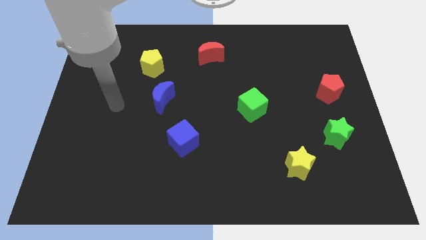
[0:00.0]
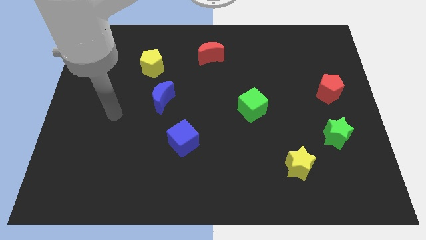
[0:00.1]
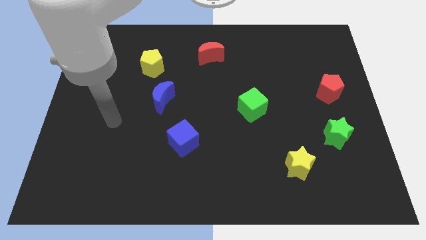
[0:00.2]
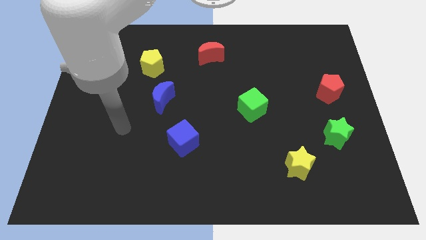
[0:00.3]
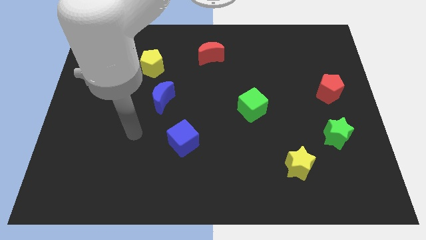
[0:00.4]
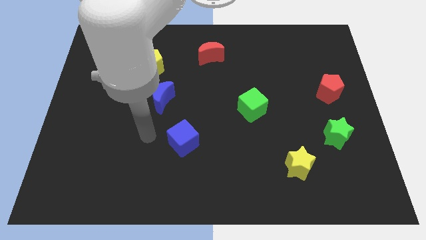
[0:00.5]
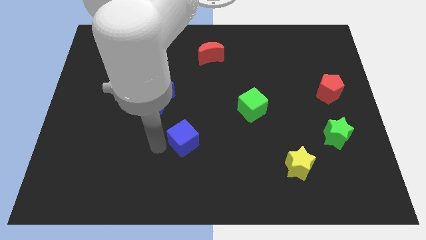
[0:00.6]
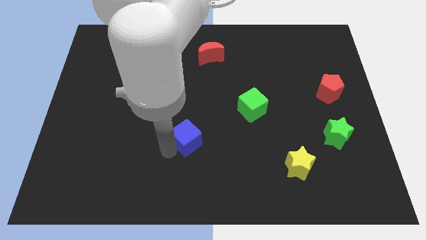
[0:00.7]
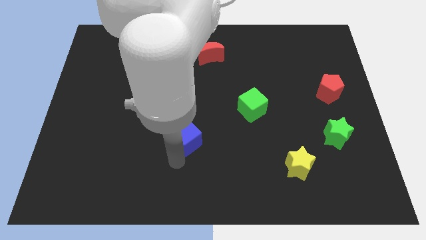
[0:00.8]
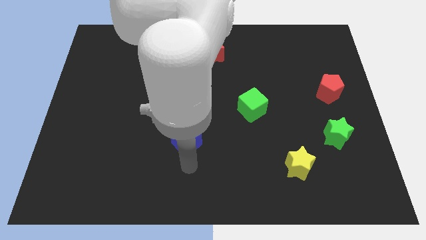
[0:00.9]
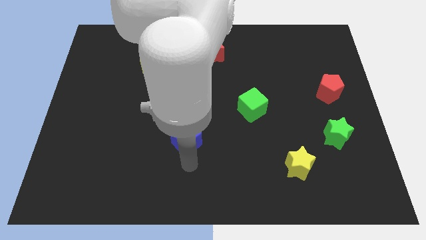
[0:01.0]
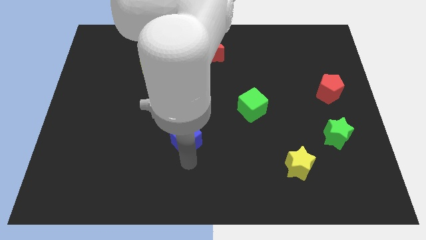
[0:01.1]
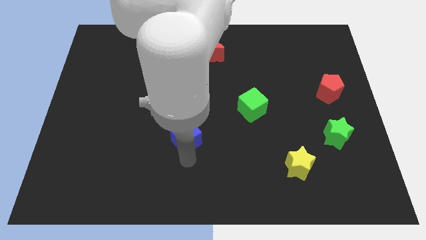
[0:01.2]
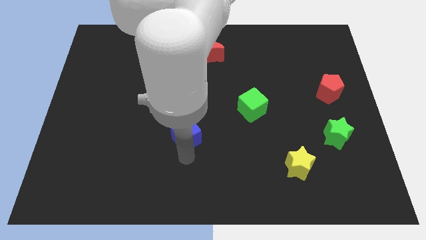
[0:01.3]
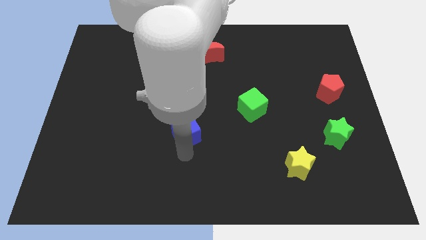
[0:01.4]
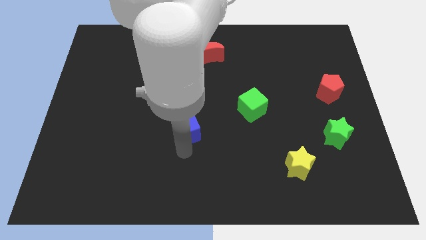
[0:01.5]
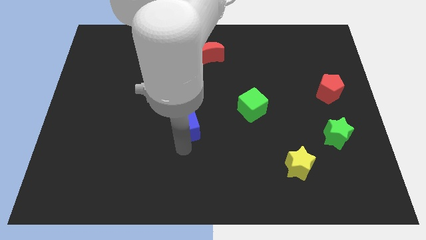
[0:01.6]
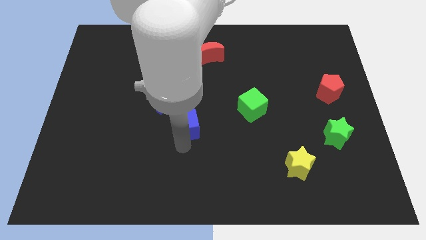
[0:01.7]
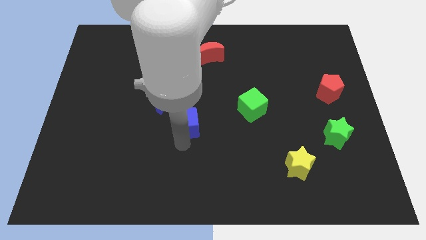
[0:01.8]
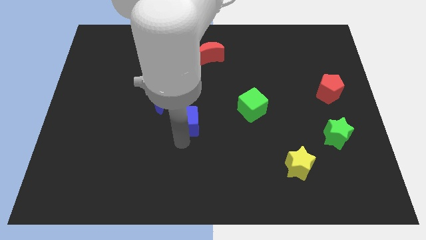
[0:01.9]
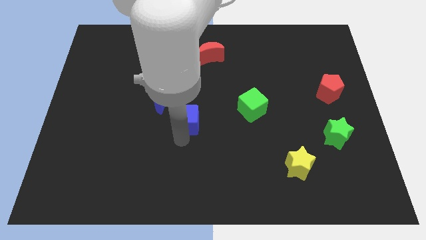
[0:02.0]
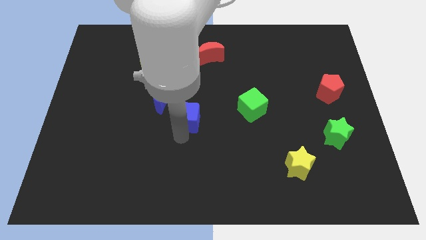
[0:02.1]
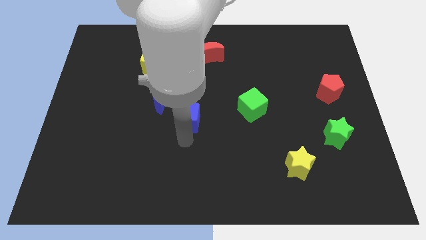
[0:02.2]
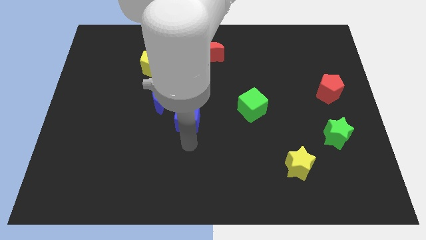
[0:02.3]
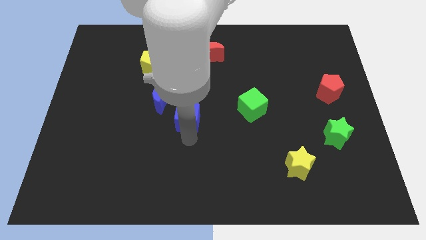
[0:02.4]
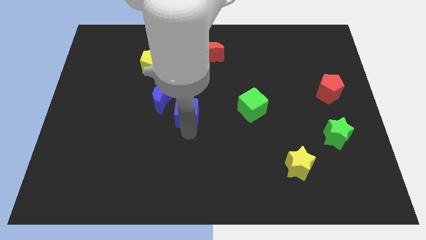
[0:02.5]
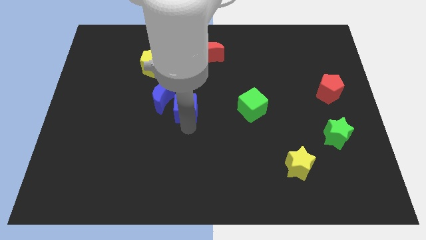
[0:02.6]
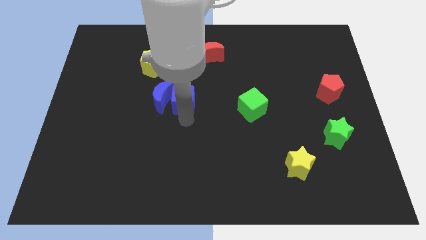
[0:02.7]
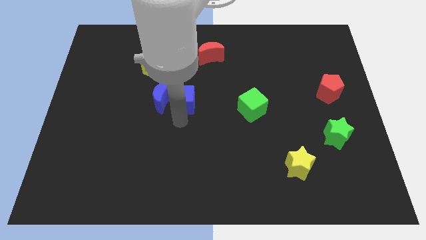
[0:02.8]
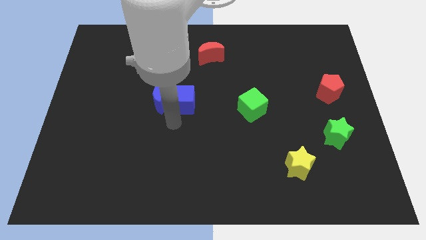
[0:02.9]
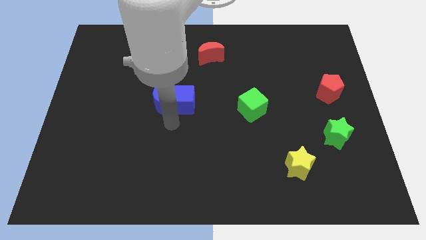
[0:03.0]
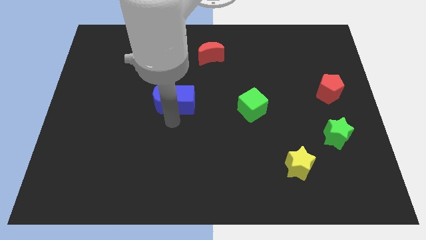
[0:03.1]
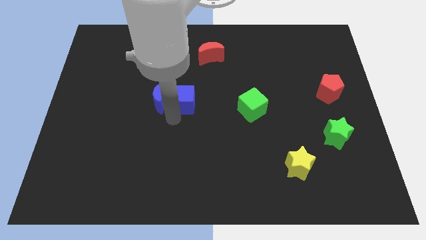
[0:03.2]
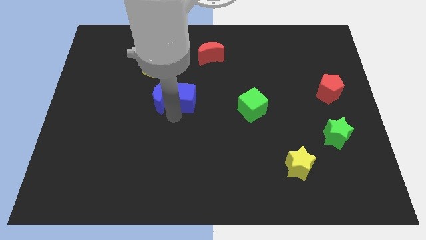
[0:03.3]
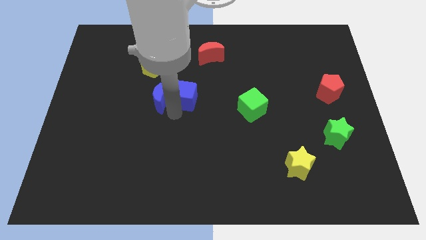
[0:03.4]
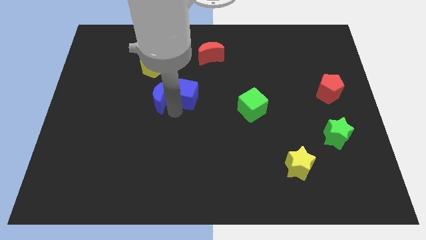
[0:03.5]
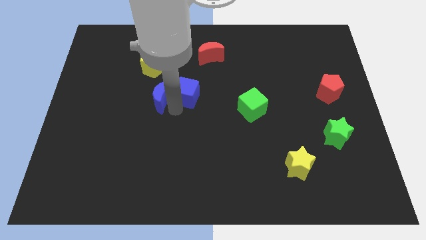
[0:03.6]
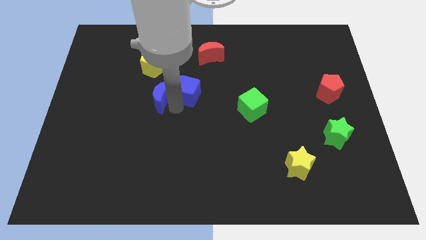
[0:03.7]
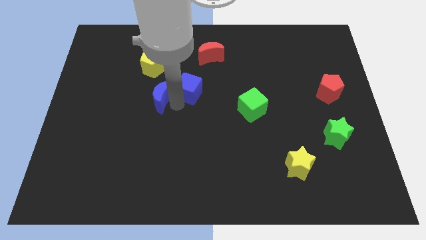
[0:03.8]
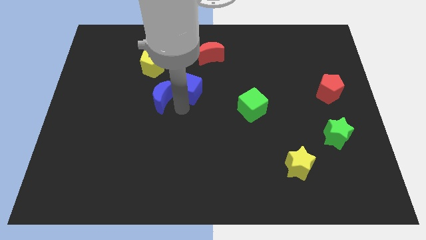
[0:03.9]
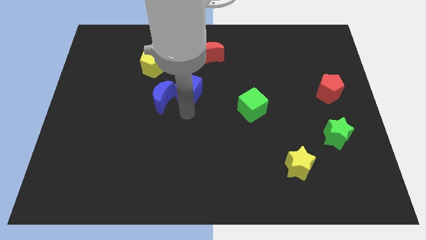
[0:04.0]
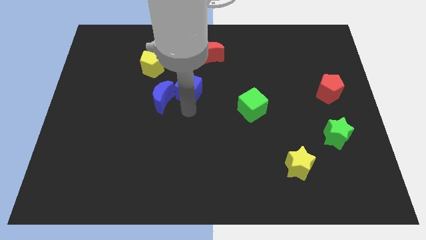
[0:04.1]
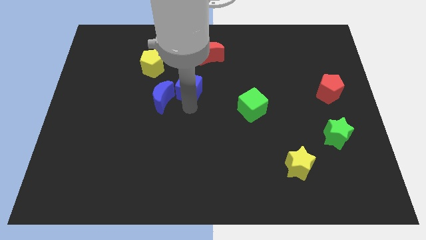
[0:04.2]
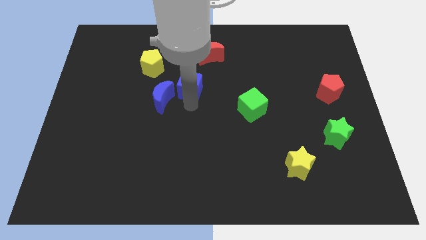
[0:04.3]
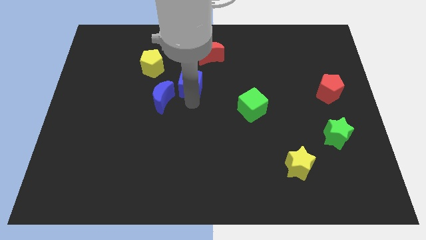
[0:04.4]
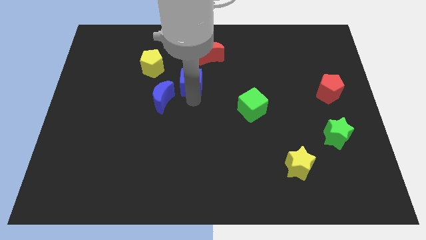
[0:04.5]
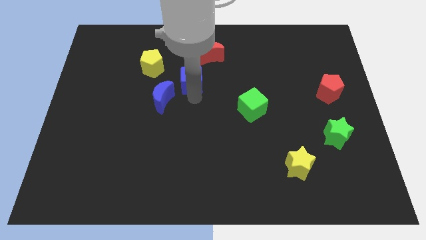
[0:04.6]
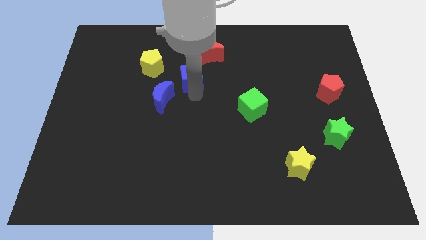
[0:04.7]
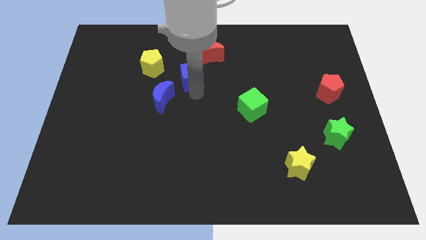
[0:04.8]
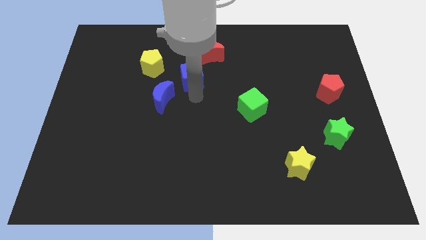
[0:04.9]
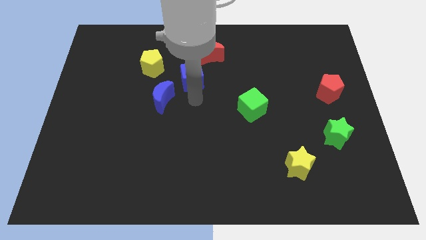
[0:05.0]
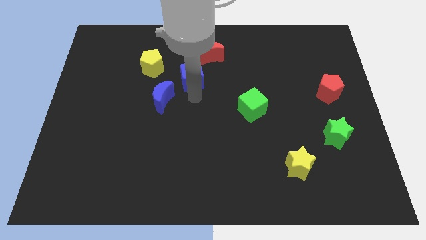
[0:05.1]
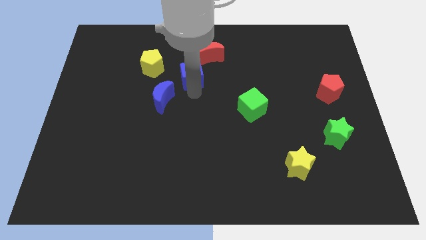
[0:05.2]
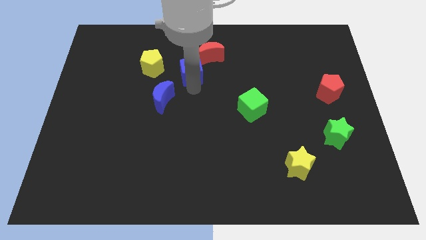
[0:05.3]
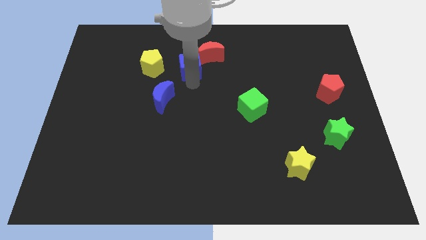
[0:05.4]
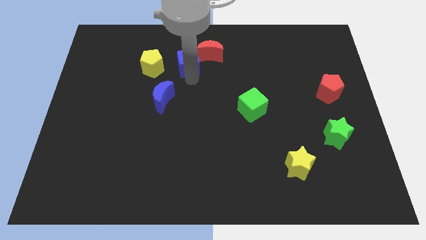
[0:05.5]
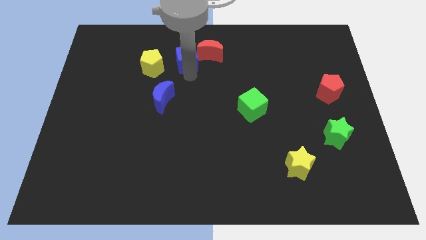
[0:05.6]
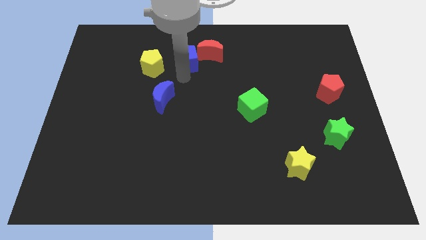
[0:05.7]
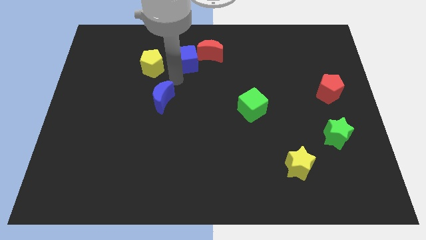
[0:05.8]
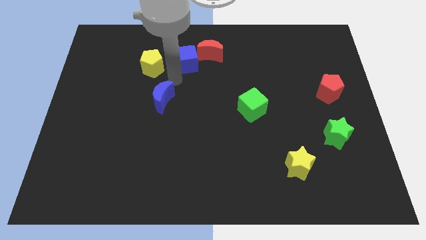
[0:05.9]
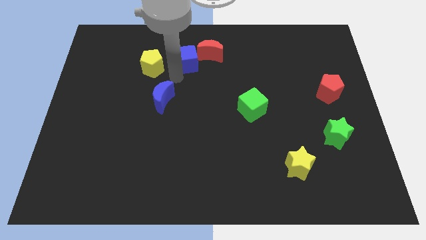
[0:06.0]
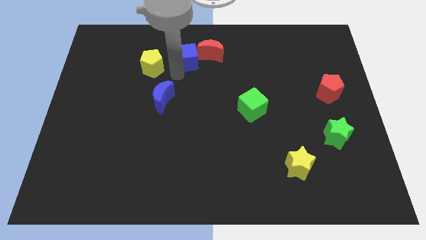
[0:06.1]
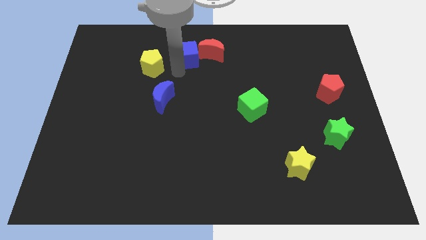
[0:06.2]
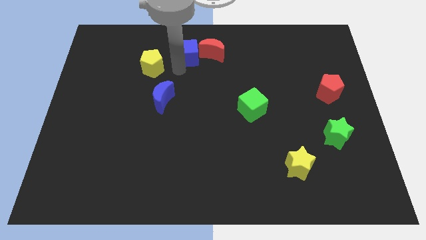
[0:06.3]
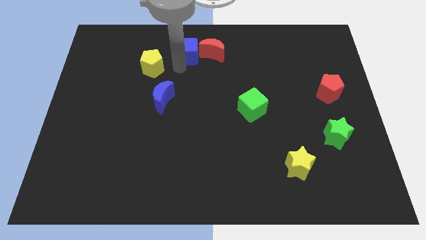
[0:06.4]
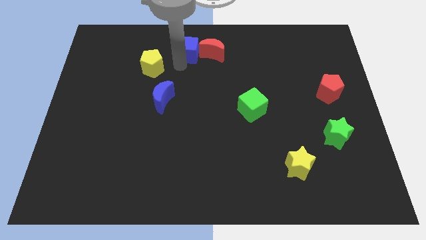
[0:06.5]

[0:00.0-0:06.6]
move the blue cube to the top

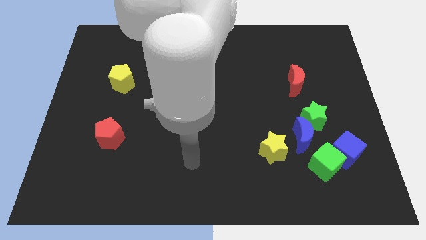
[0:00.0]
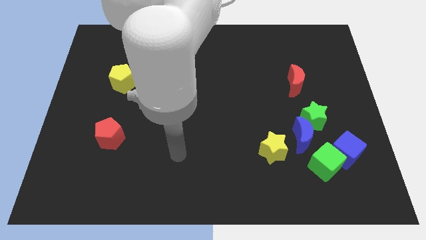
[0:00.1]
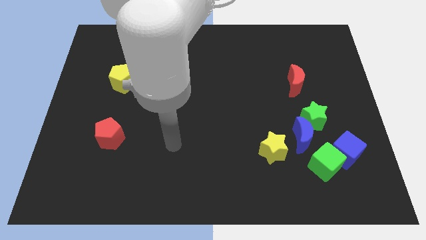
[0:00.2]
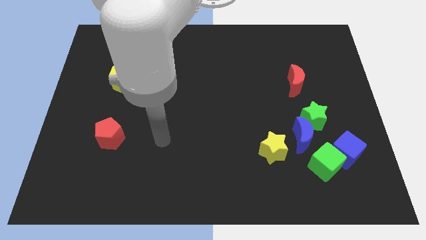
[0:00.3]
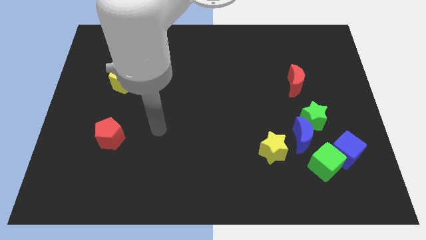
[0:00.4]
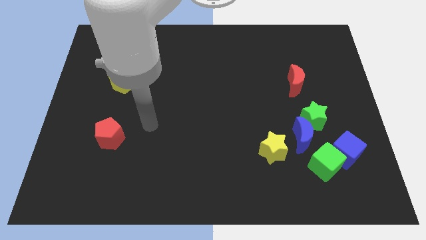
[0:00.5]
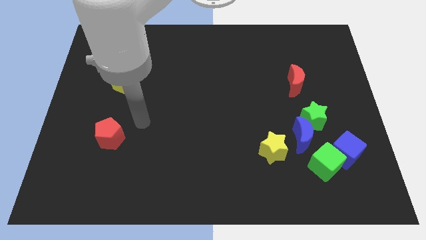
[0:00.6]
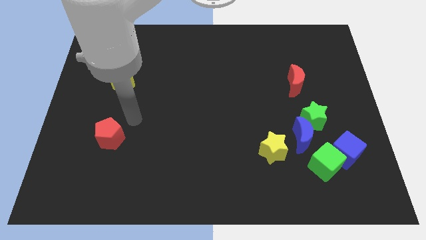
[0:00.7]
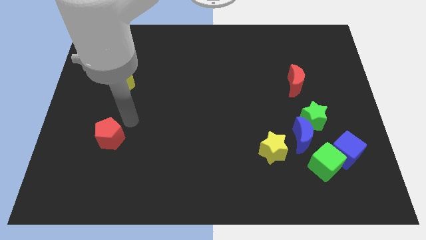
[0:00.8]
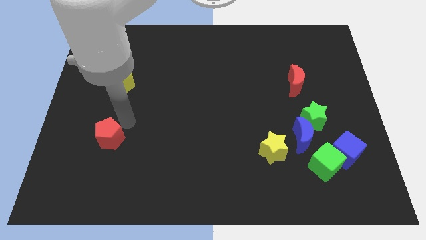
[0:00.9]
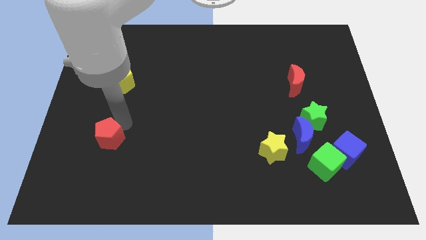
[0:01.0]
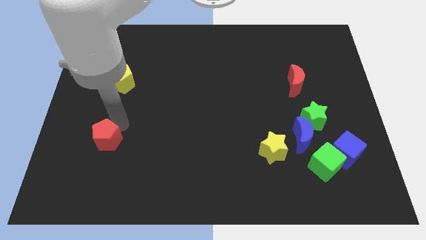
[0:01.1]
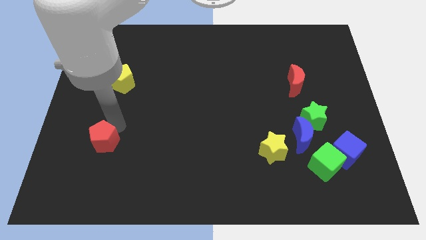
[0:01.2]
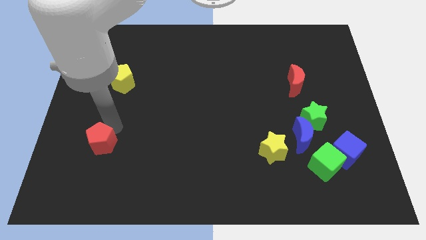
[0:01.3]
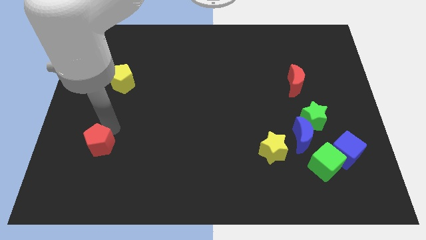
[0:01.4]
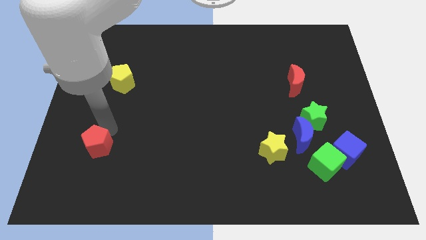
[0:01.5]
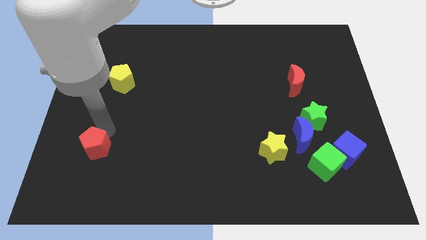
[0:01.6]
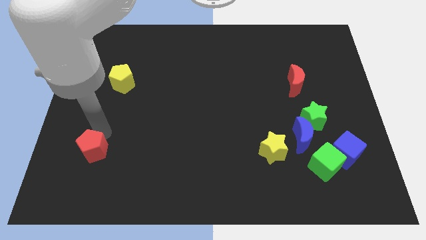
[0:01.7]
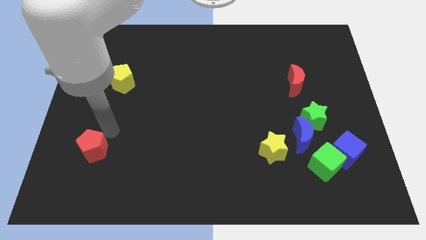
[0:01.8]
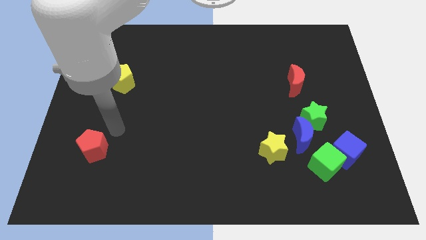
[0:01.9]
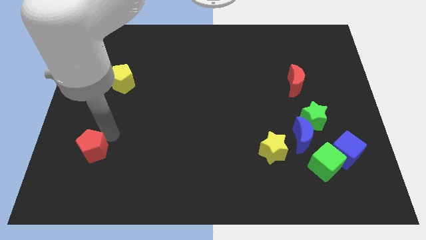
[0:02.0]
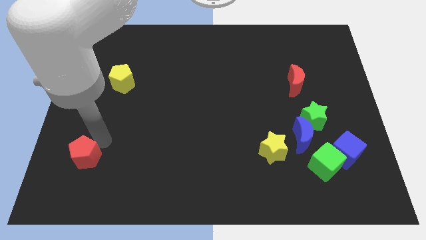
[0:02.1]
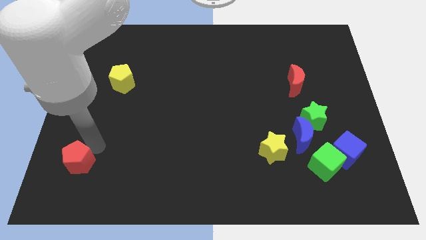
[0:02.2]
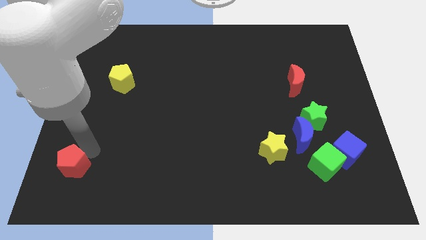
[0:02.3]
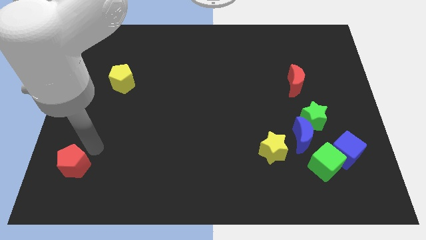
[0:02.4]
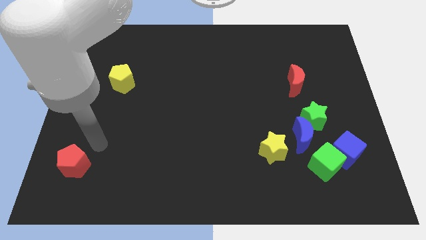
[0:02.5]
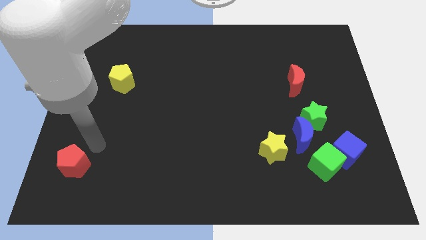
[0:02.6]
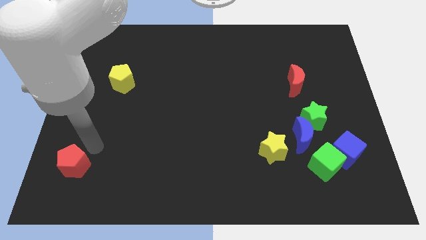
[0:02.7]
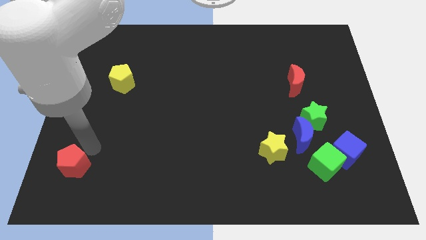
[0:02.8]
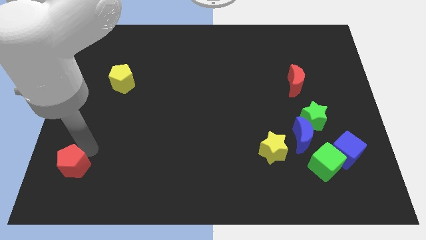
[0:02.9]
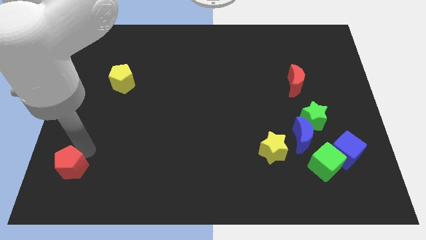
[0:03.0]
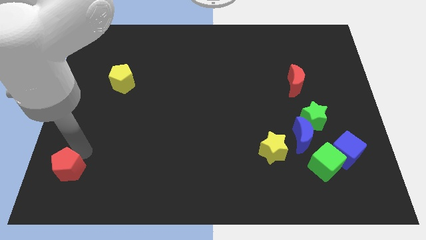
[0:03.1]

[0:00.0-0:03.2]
push the red pentagon to the lower left corner
